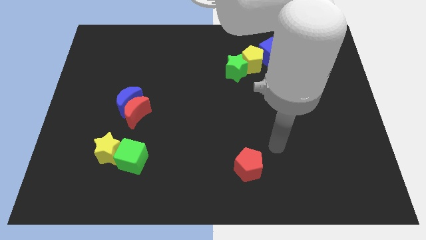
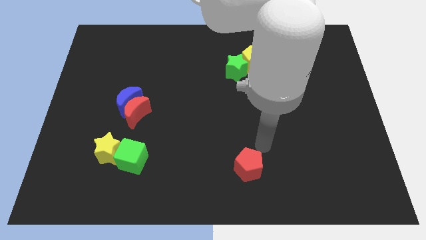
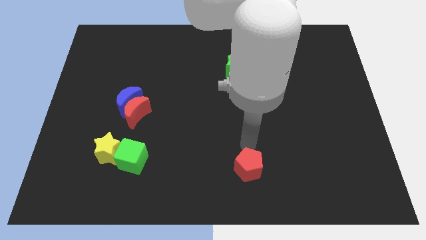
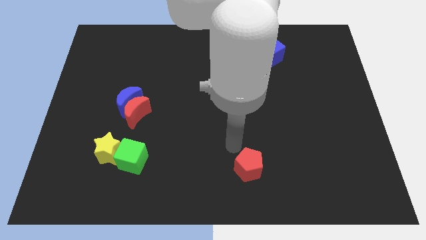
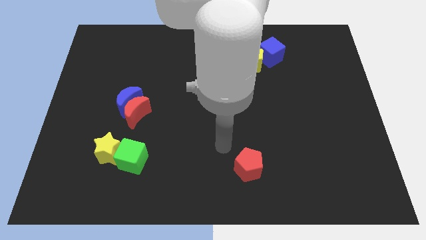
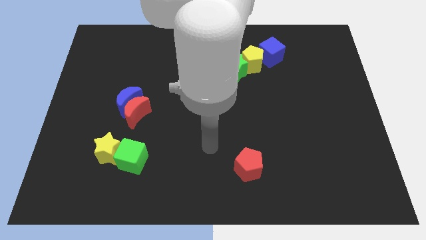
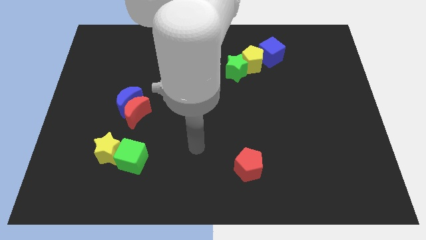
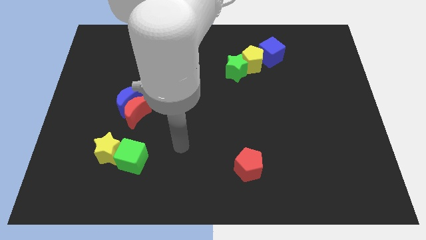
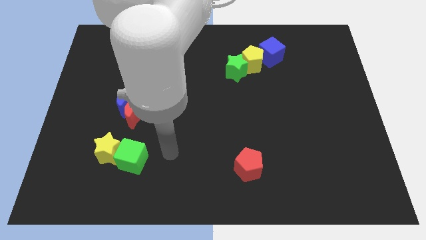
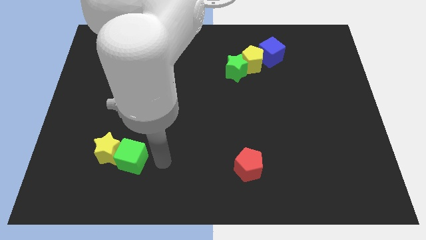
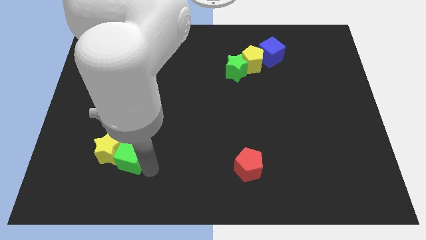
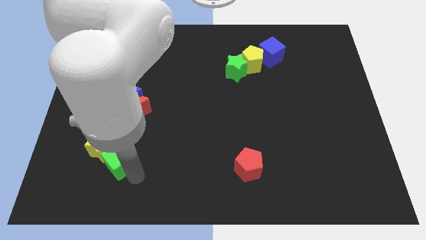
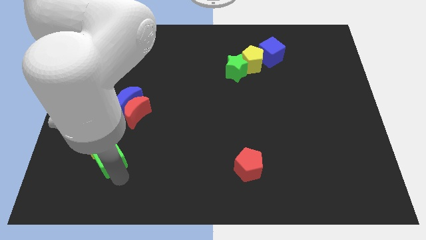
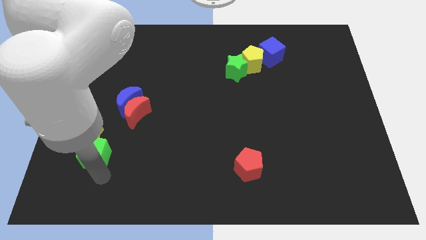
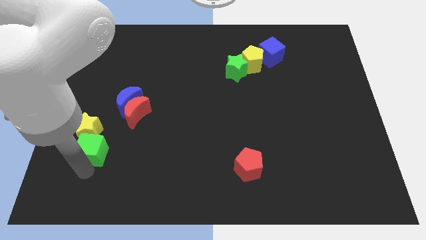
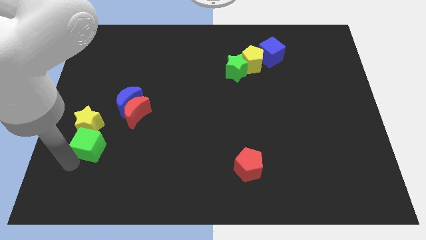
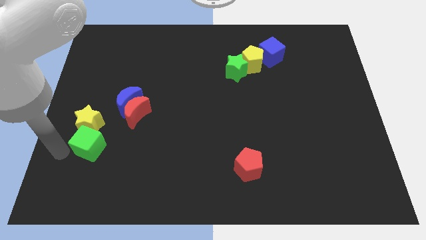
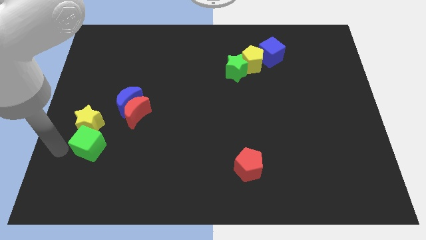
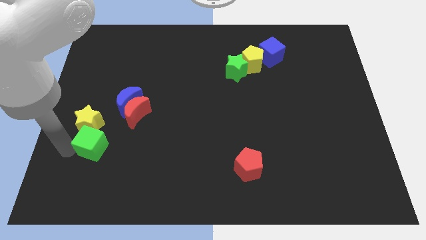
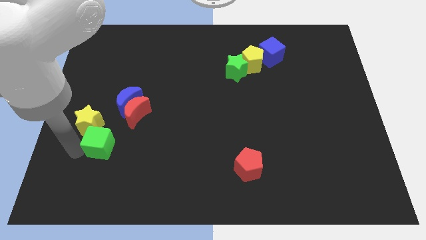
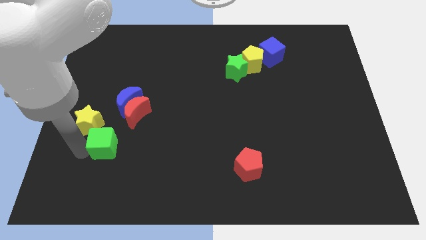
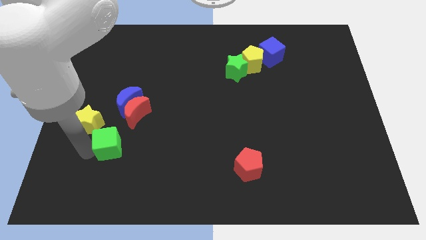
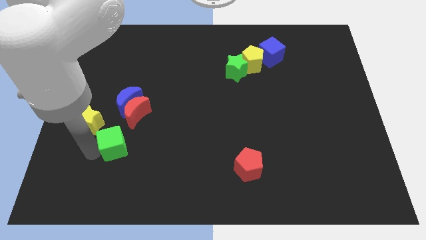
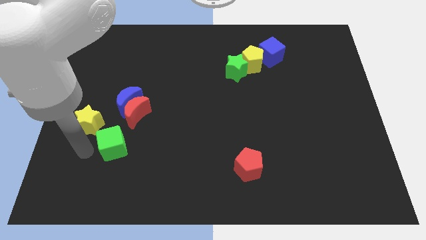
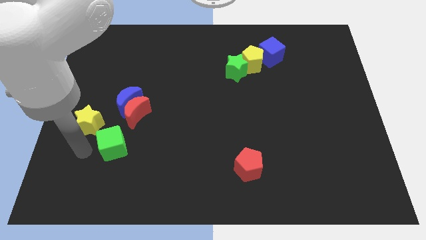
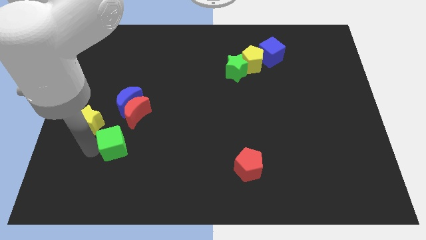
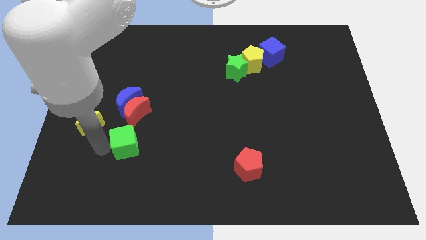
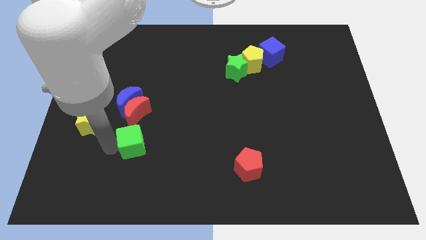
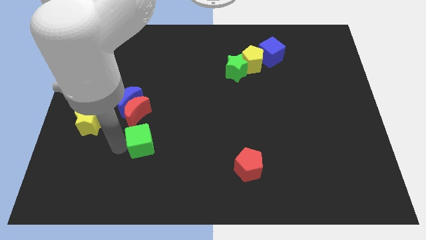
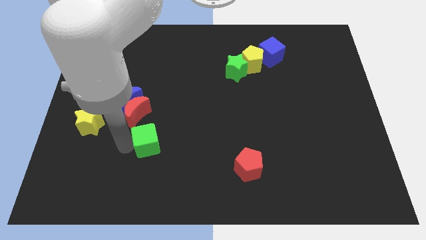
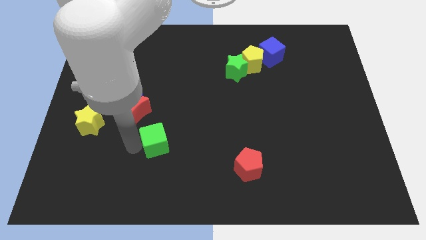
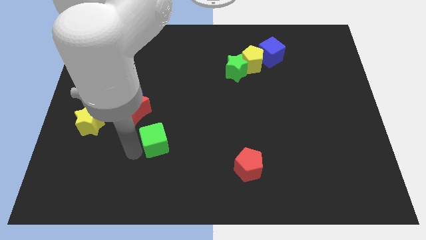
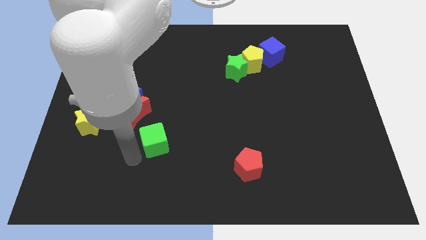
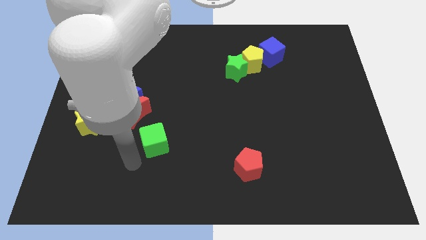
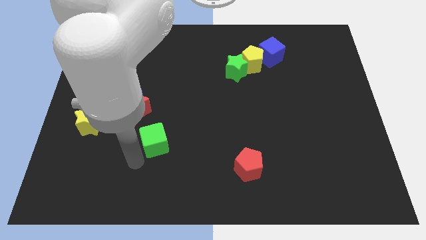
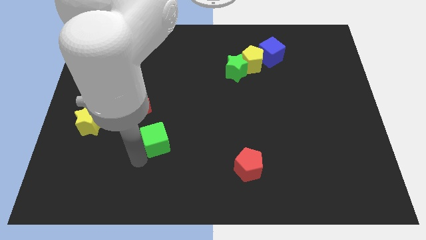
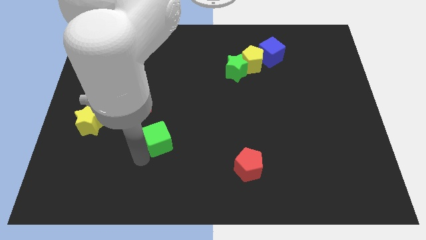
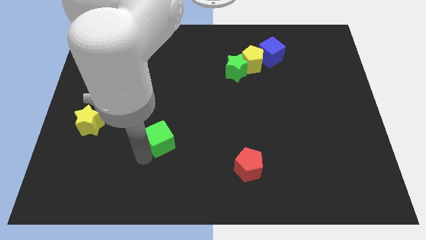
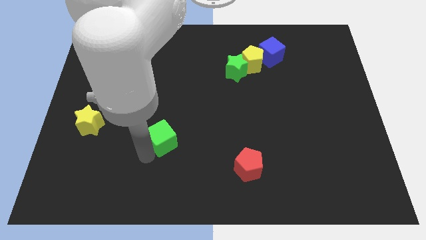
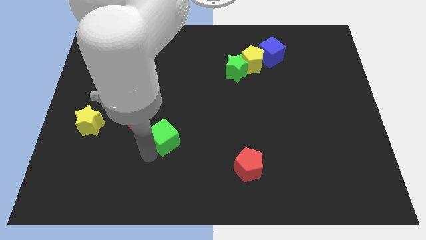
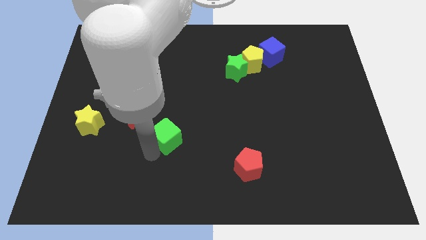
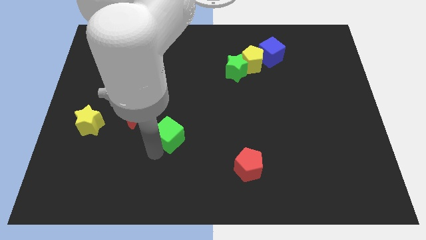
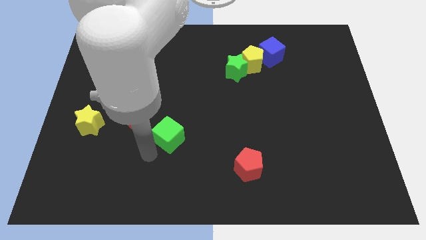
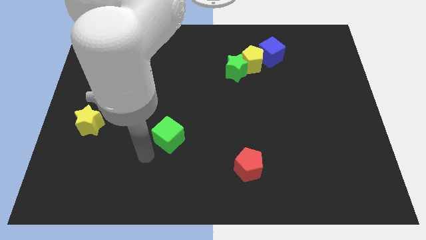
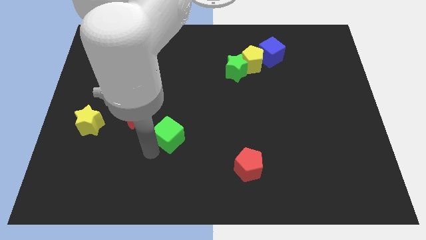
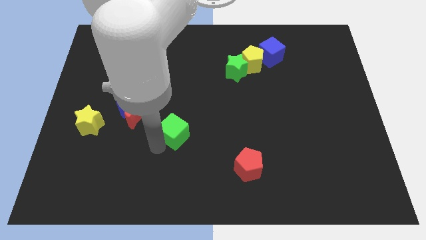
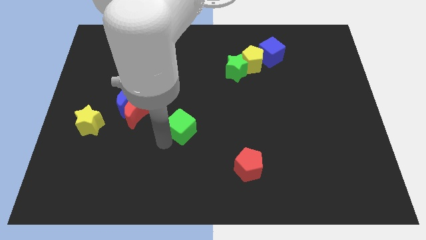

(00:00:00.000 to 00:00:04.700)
put the green cube to the middle

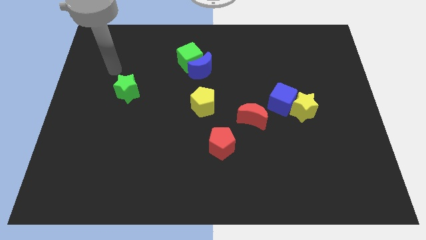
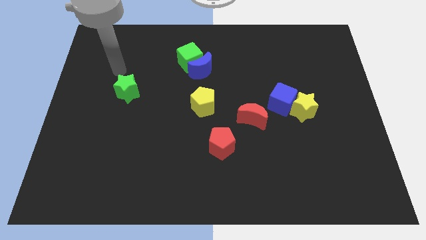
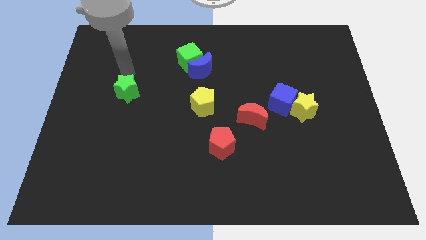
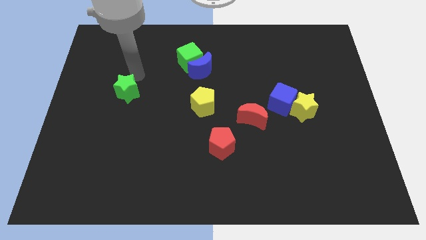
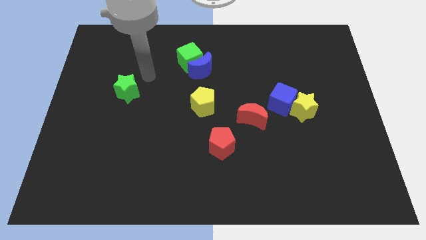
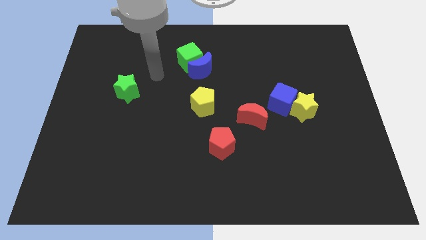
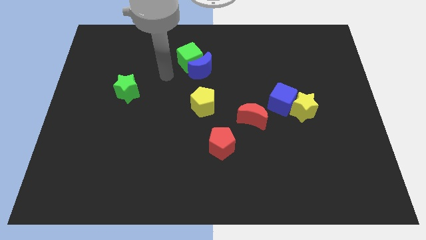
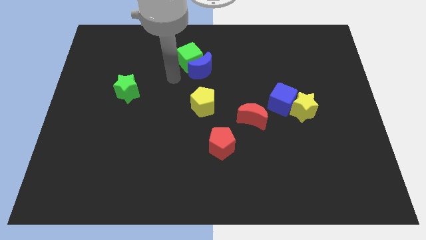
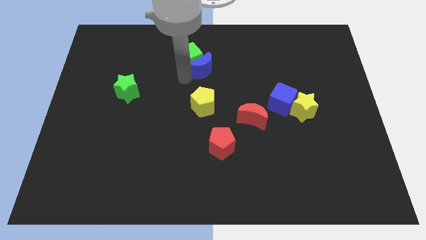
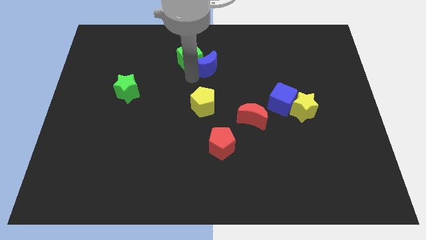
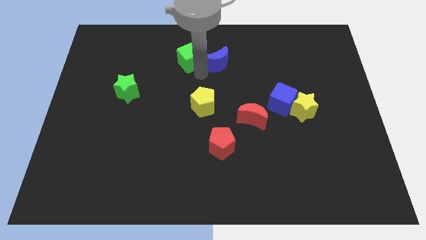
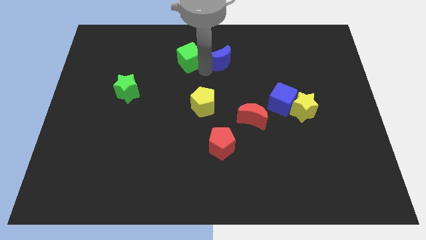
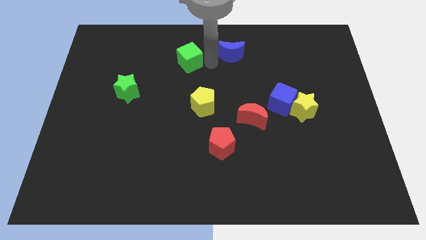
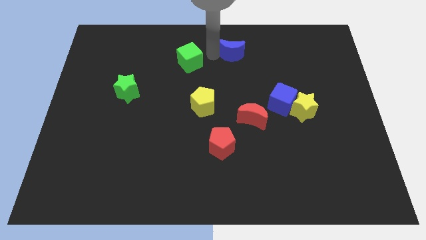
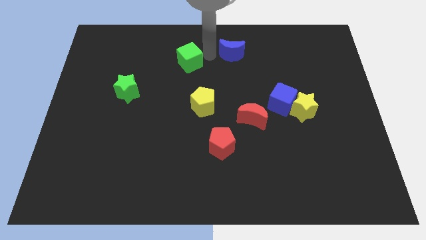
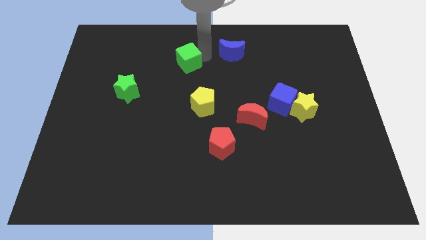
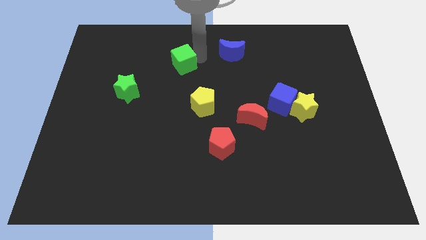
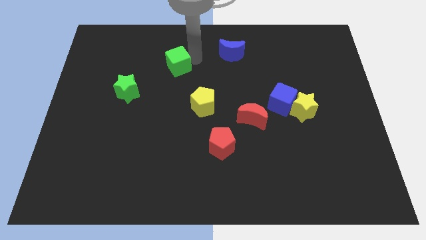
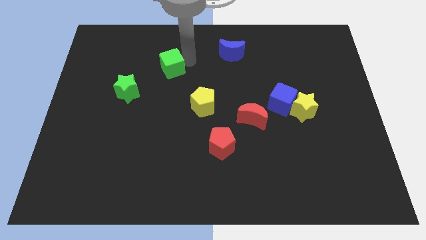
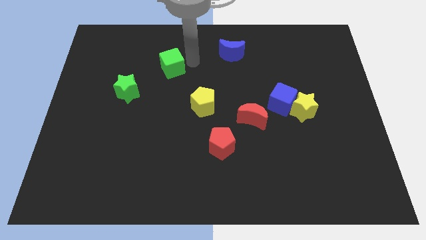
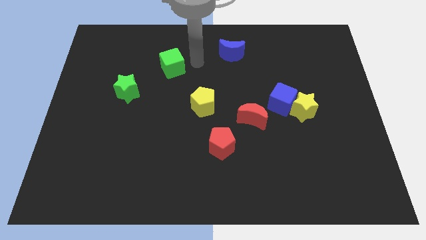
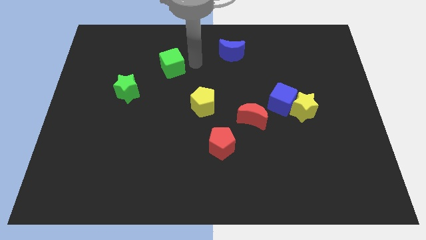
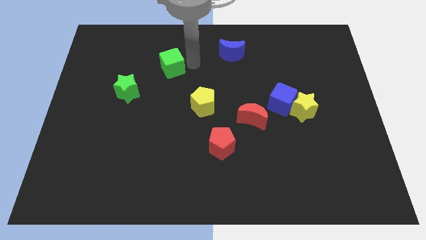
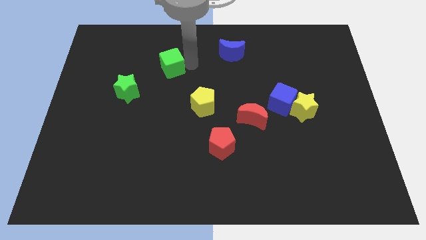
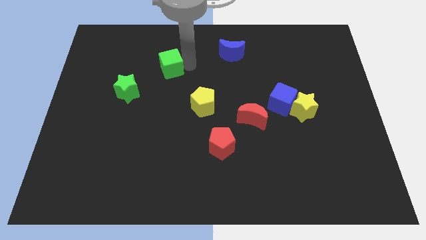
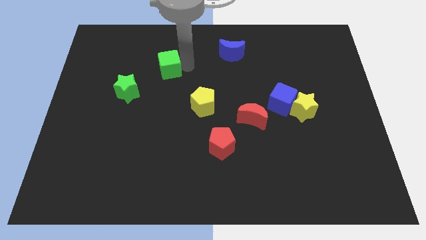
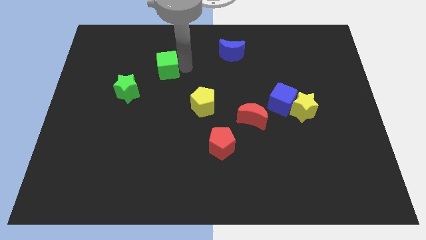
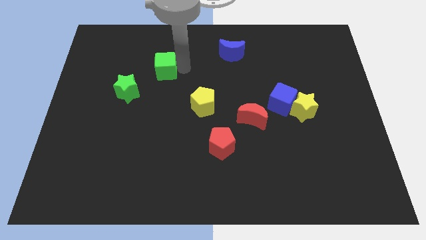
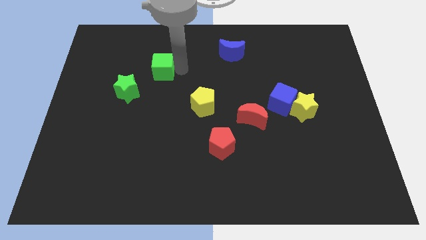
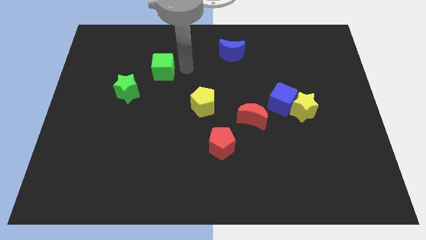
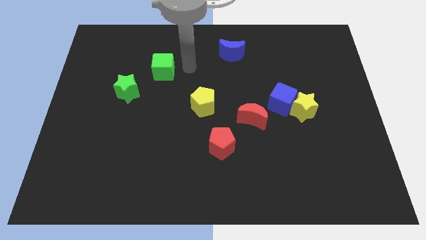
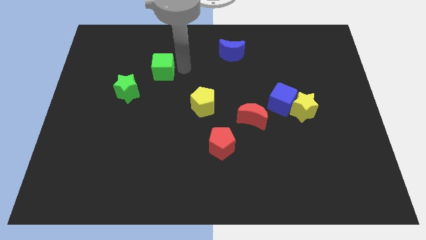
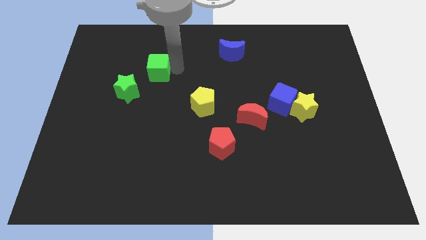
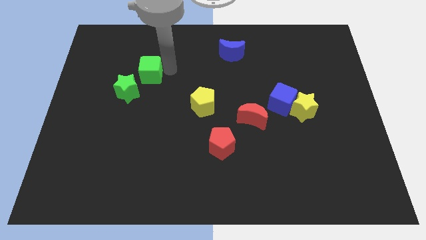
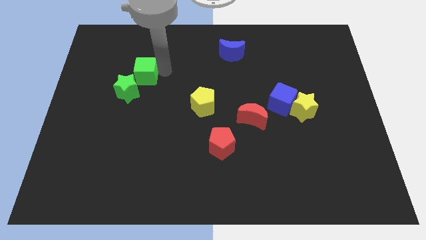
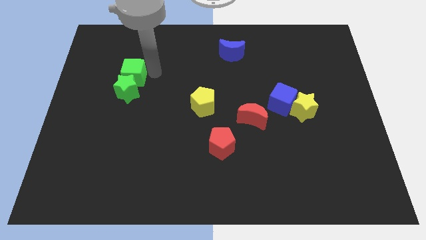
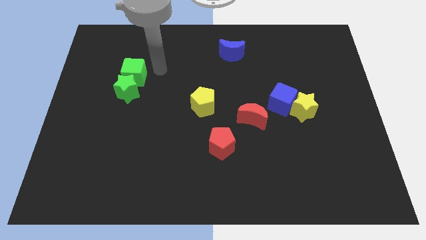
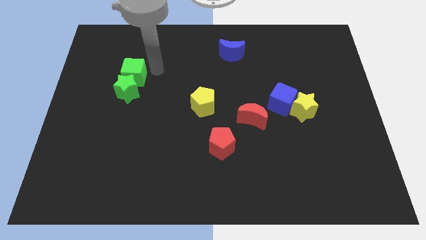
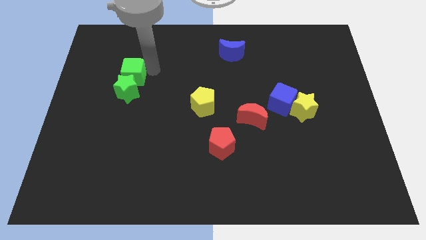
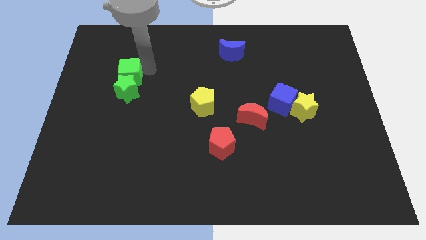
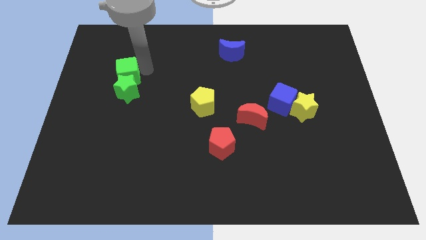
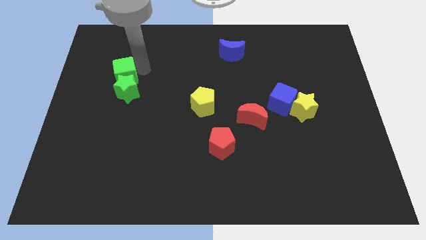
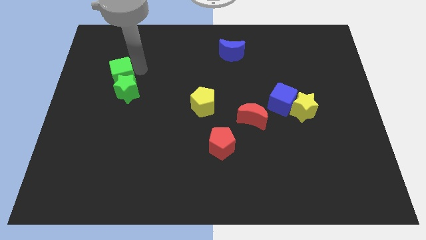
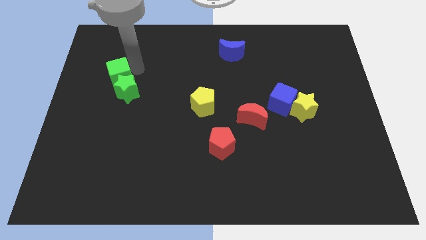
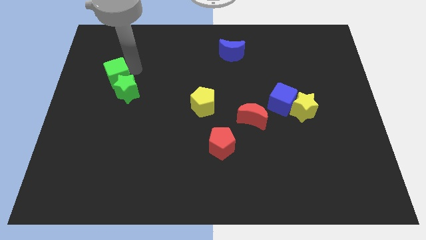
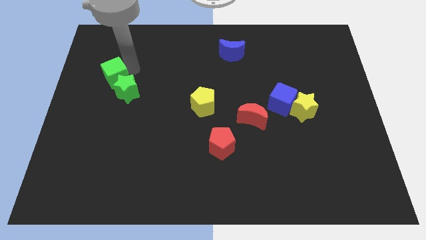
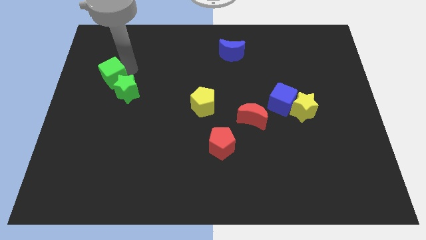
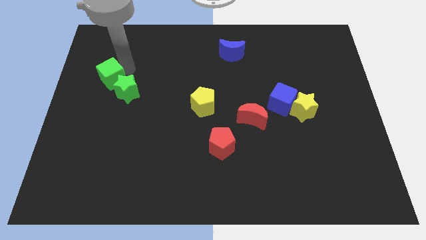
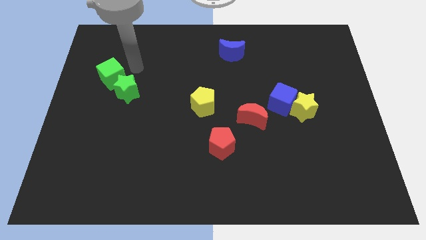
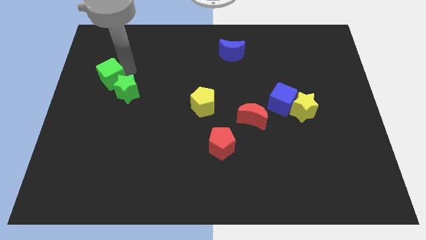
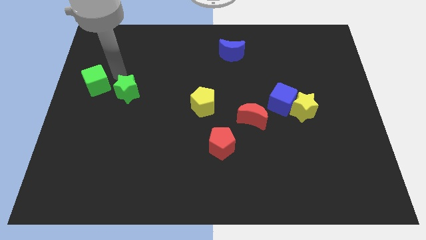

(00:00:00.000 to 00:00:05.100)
move the green cube to the left side of the board
